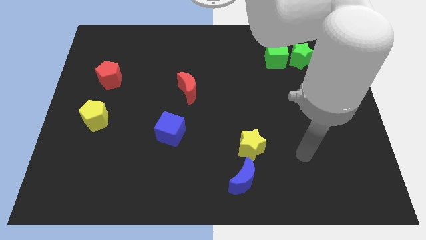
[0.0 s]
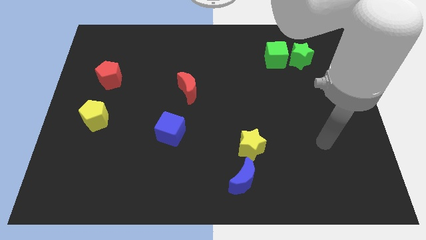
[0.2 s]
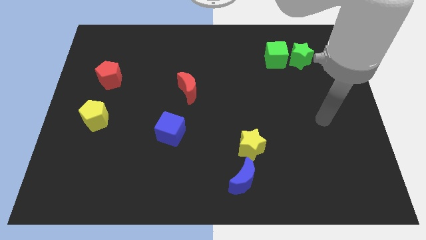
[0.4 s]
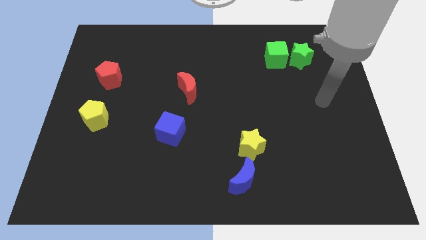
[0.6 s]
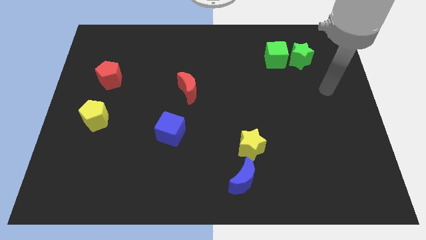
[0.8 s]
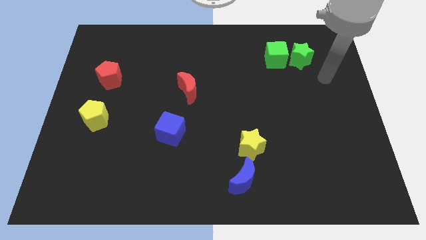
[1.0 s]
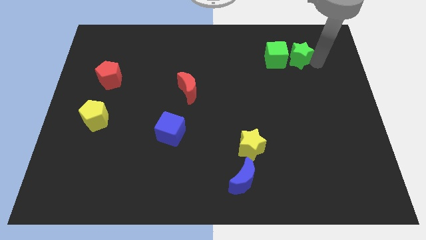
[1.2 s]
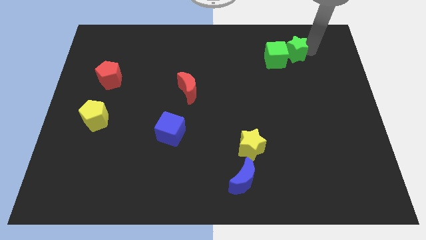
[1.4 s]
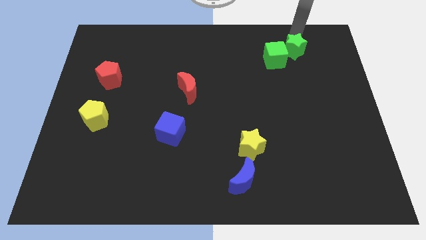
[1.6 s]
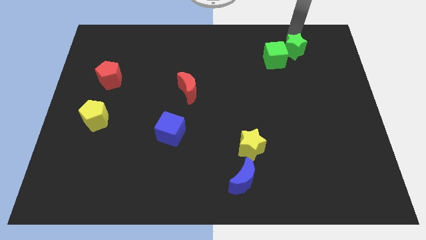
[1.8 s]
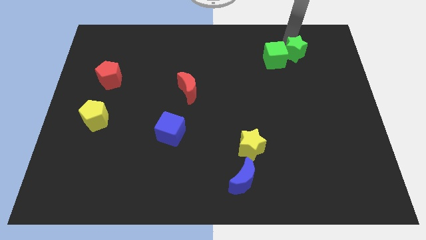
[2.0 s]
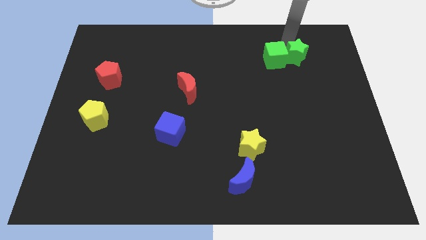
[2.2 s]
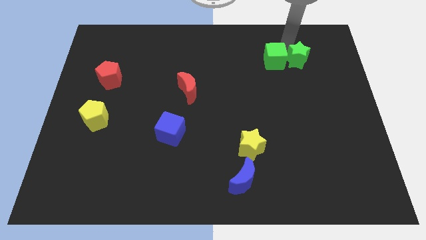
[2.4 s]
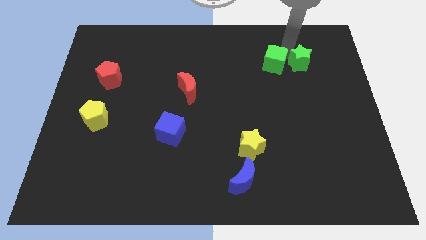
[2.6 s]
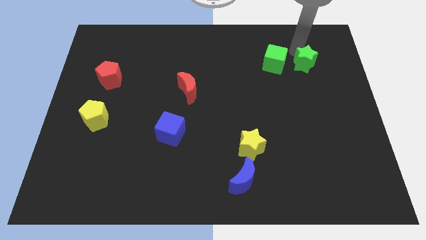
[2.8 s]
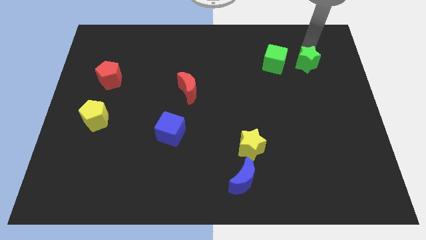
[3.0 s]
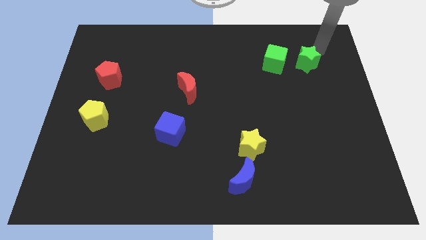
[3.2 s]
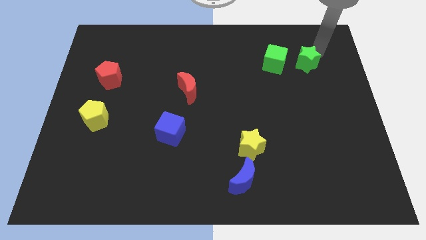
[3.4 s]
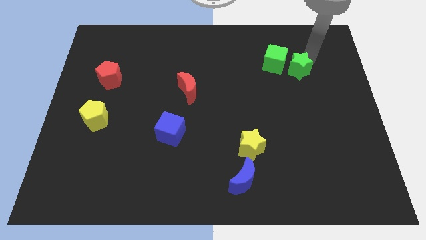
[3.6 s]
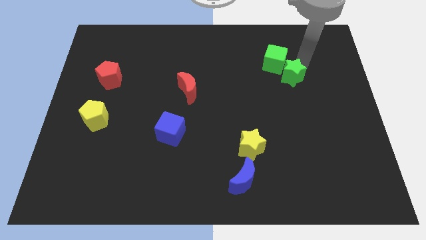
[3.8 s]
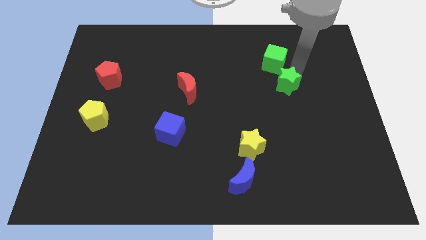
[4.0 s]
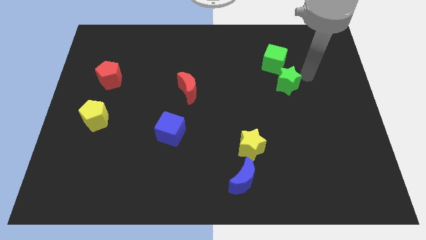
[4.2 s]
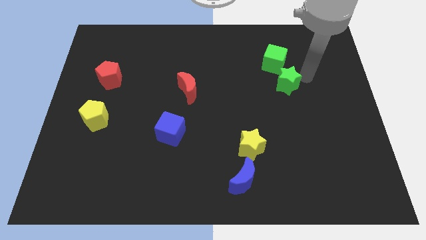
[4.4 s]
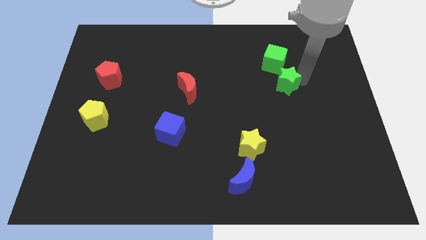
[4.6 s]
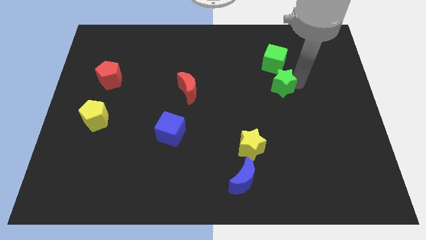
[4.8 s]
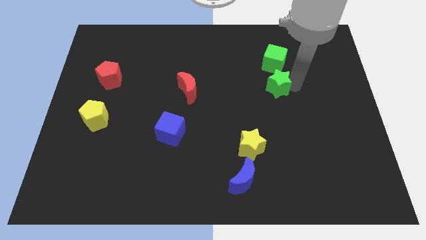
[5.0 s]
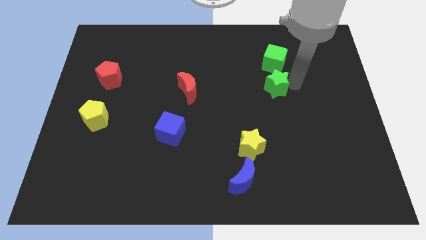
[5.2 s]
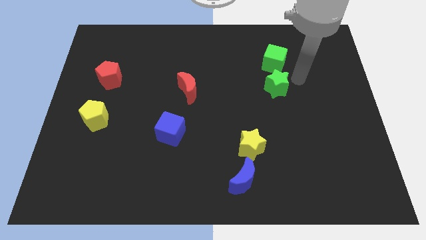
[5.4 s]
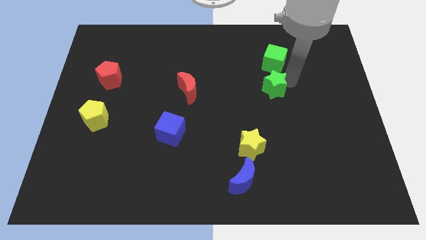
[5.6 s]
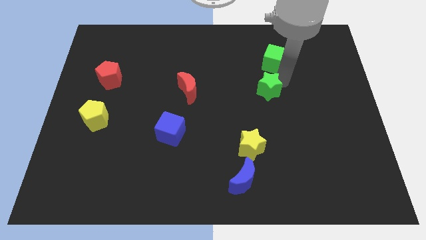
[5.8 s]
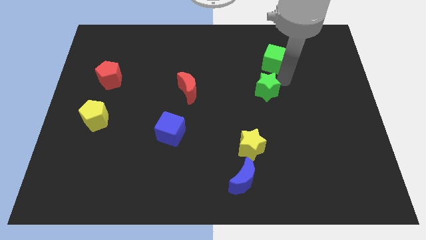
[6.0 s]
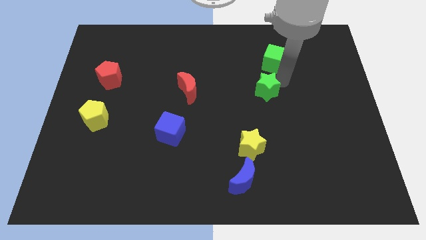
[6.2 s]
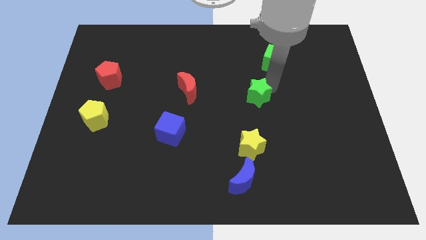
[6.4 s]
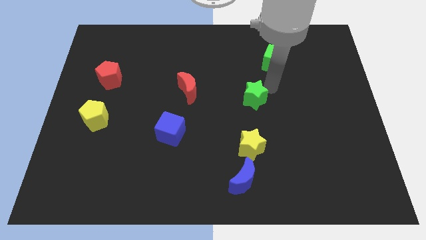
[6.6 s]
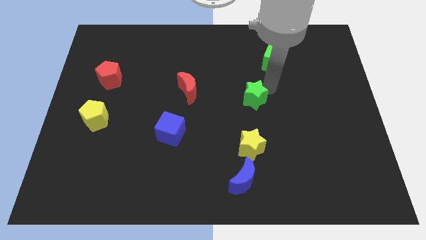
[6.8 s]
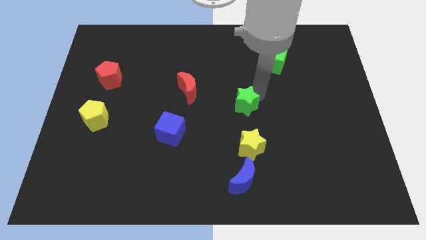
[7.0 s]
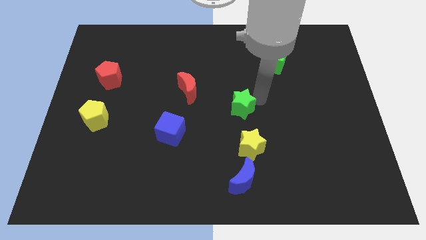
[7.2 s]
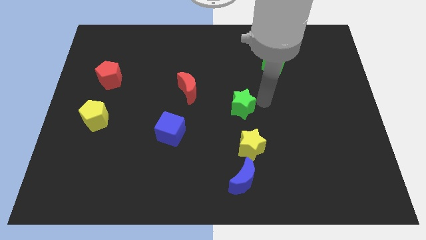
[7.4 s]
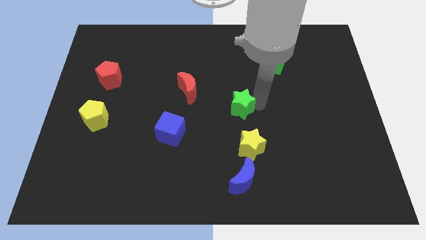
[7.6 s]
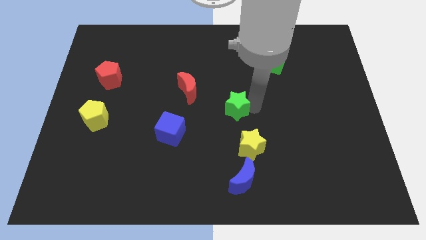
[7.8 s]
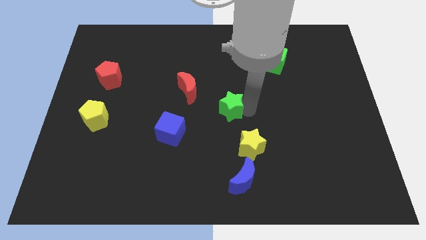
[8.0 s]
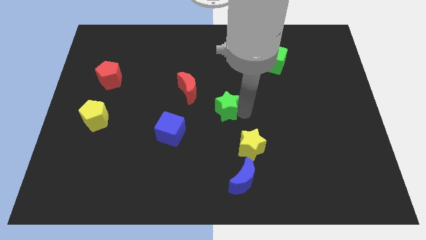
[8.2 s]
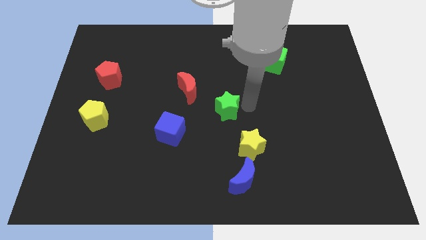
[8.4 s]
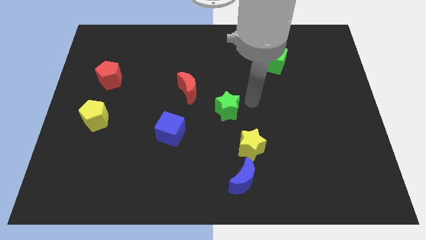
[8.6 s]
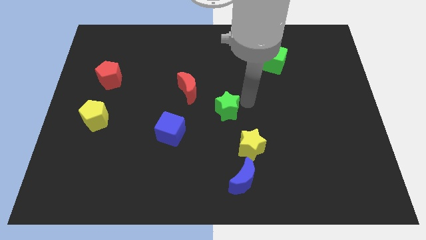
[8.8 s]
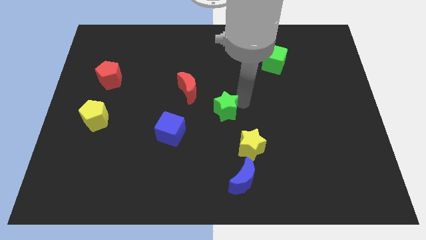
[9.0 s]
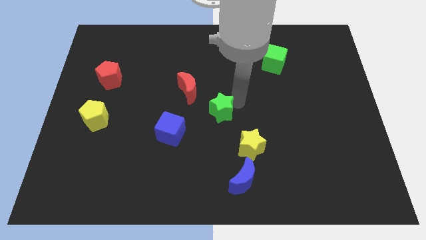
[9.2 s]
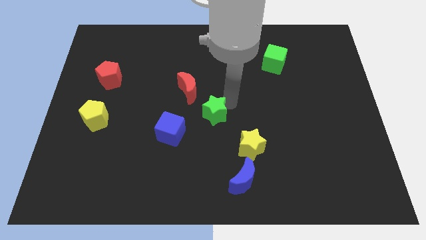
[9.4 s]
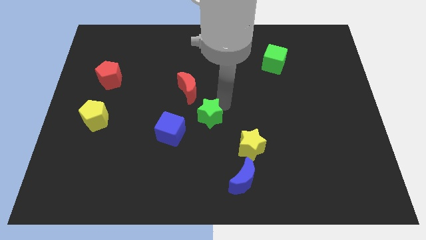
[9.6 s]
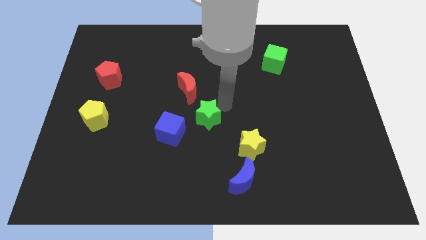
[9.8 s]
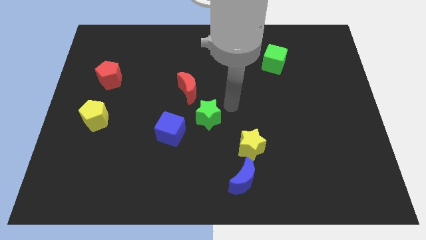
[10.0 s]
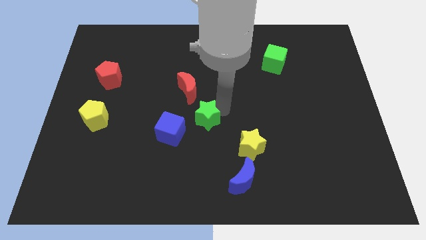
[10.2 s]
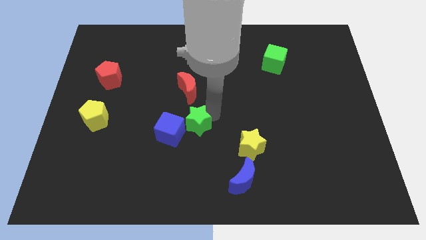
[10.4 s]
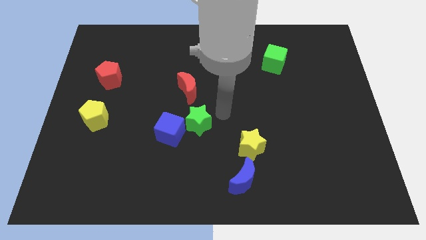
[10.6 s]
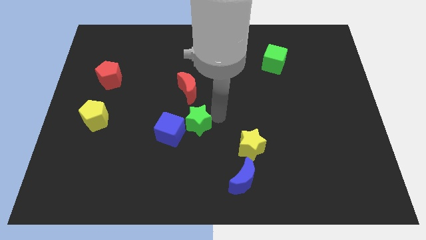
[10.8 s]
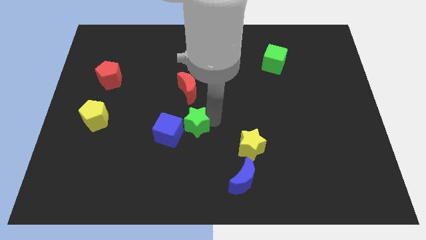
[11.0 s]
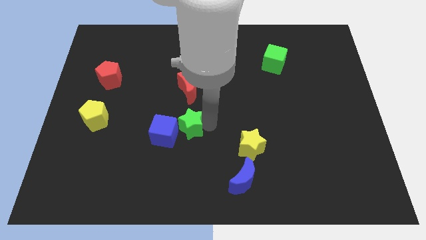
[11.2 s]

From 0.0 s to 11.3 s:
move the green star to the blue cube

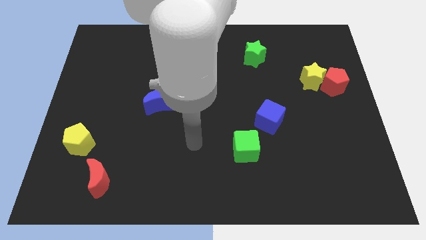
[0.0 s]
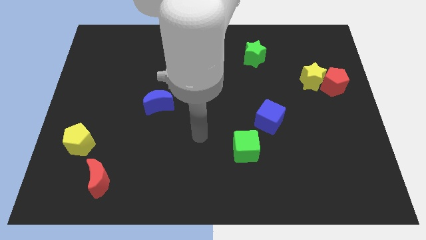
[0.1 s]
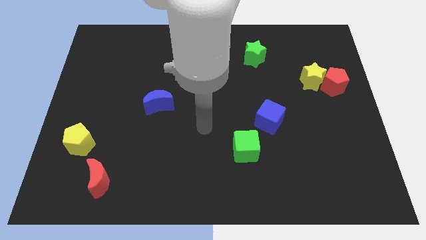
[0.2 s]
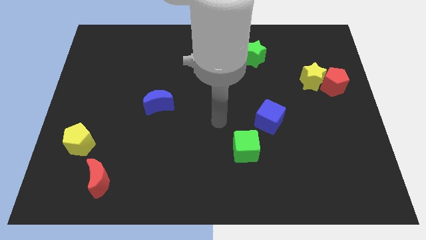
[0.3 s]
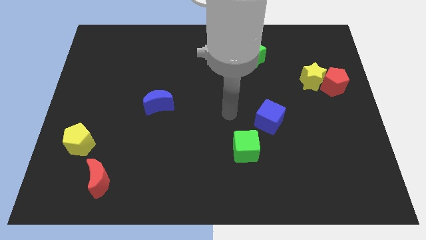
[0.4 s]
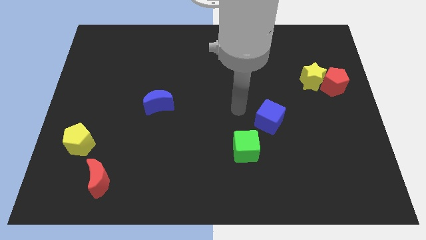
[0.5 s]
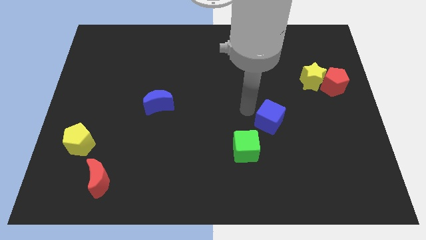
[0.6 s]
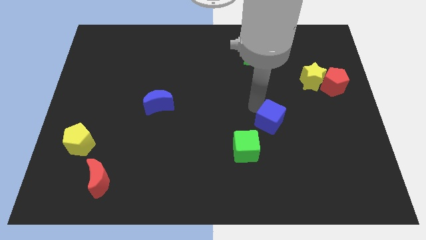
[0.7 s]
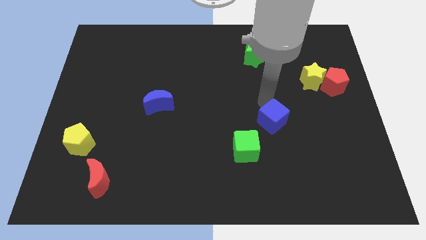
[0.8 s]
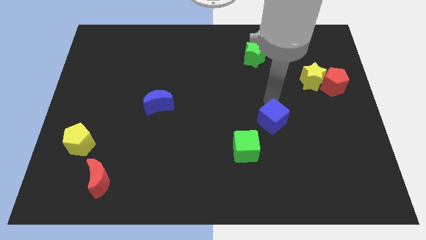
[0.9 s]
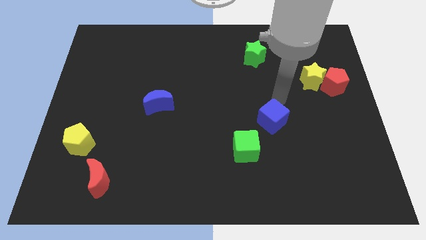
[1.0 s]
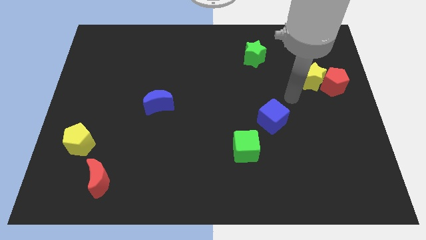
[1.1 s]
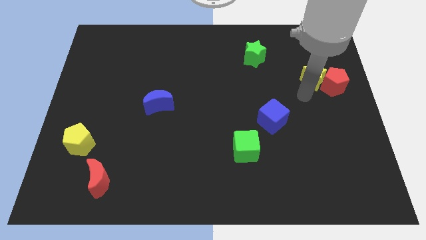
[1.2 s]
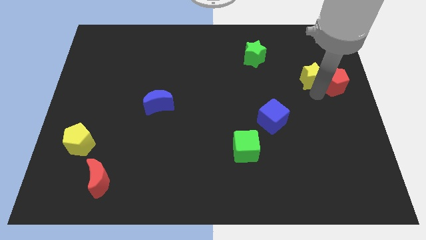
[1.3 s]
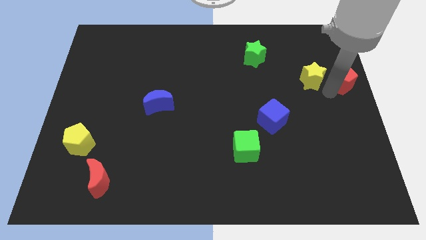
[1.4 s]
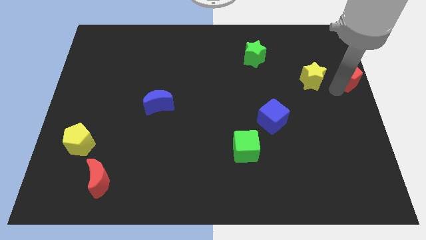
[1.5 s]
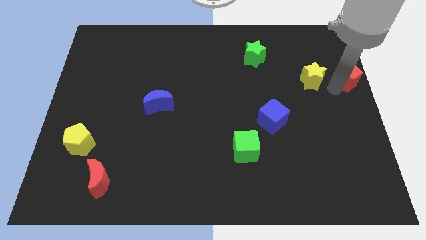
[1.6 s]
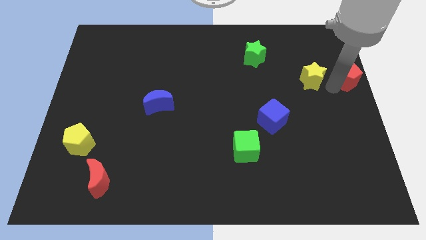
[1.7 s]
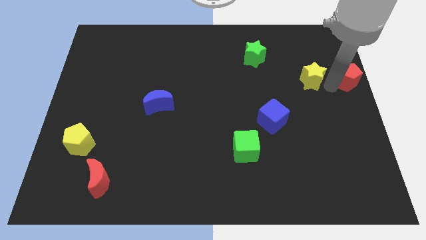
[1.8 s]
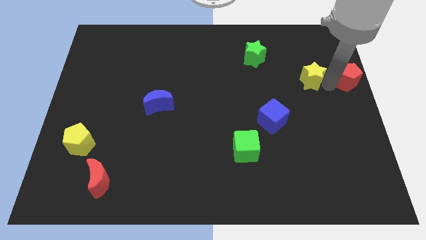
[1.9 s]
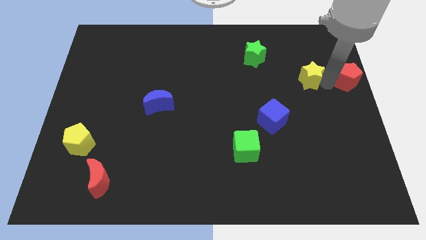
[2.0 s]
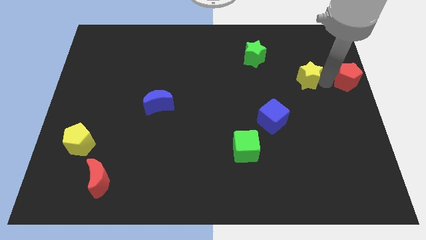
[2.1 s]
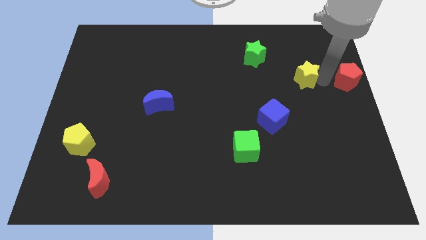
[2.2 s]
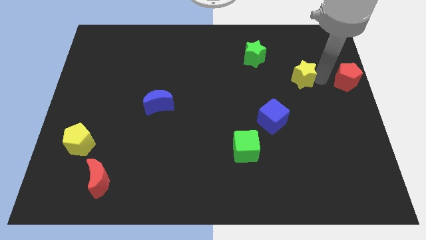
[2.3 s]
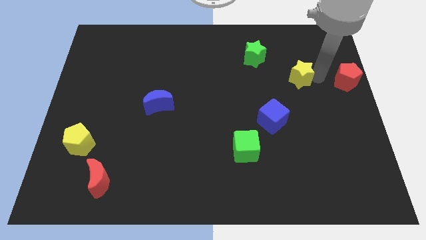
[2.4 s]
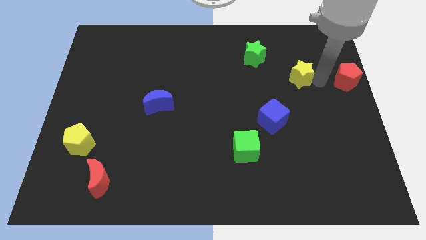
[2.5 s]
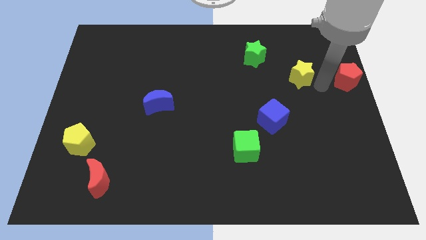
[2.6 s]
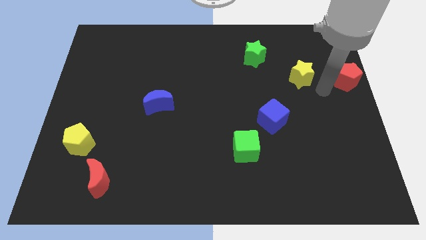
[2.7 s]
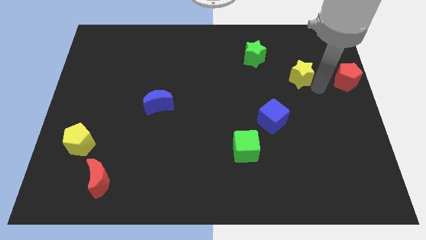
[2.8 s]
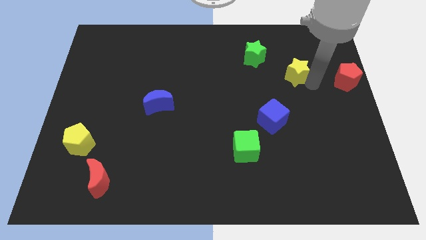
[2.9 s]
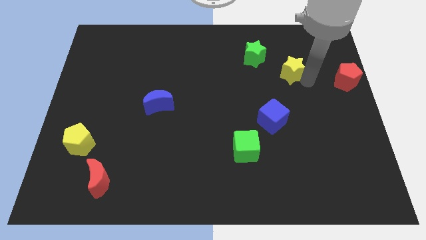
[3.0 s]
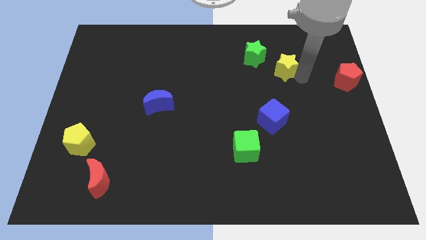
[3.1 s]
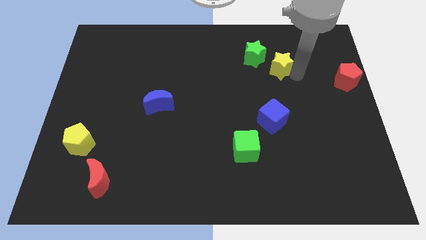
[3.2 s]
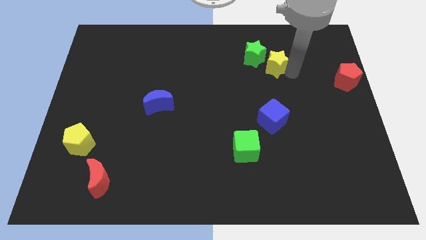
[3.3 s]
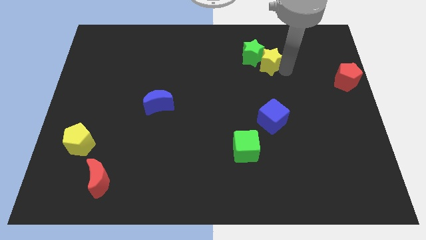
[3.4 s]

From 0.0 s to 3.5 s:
push the yellow star next to the green star
